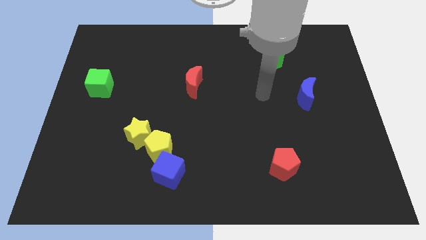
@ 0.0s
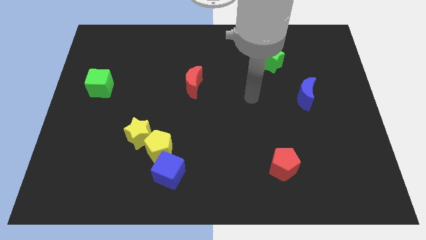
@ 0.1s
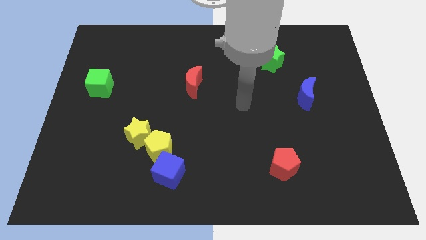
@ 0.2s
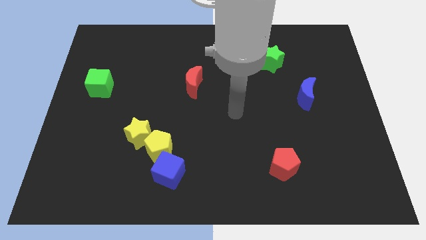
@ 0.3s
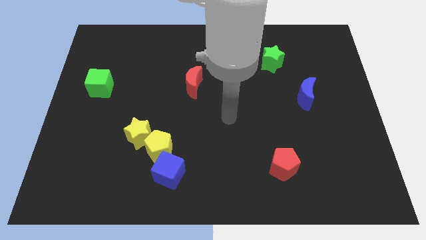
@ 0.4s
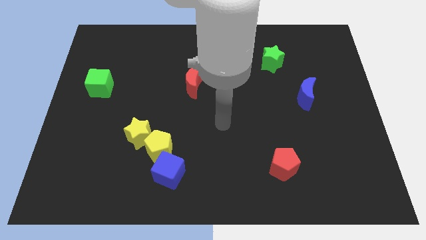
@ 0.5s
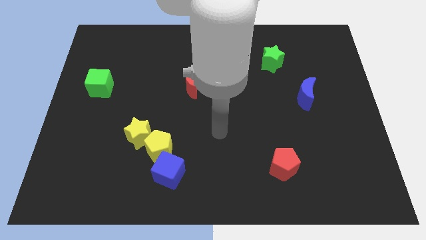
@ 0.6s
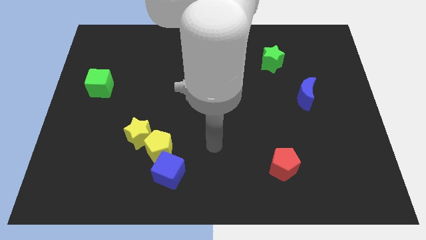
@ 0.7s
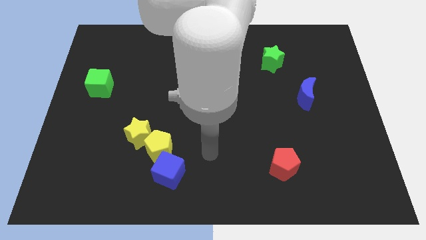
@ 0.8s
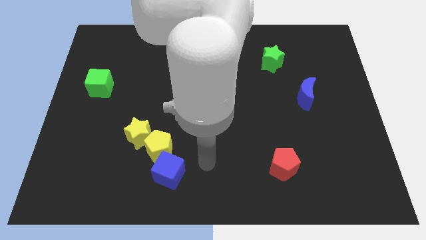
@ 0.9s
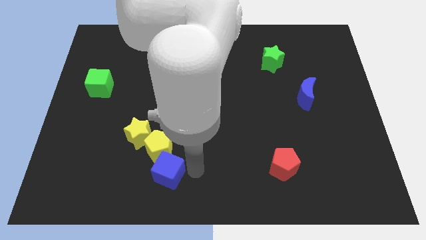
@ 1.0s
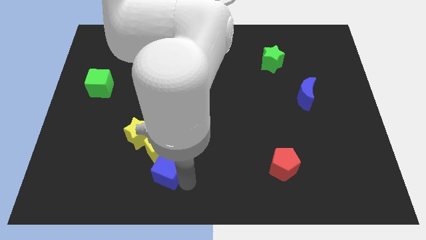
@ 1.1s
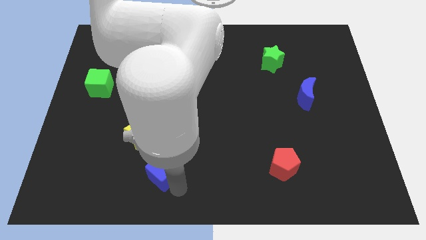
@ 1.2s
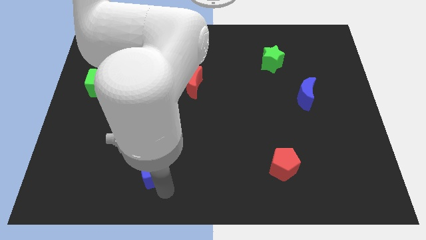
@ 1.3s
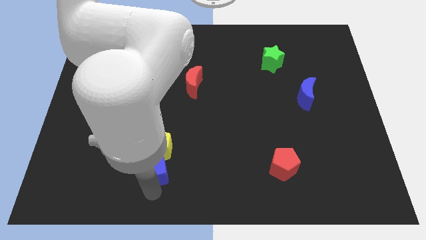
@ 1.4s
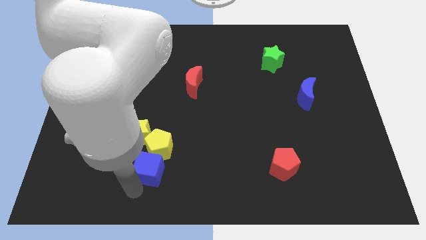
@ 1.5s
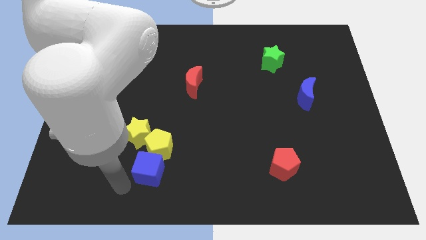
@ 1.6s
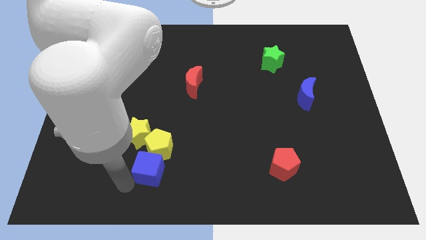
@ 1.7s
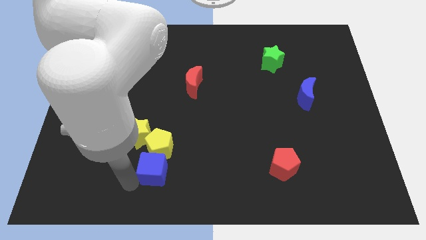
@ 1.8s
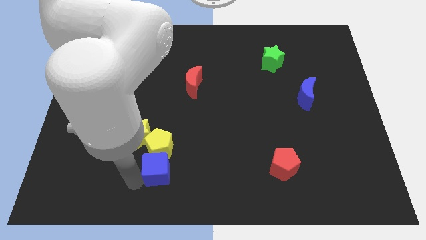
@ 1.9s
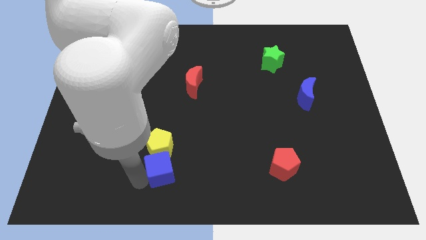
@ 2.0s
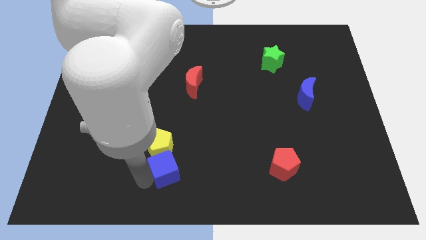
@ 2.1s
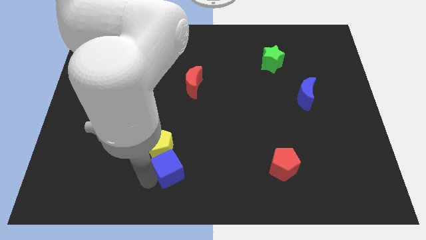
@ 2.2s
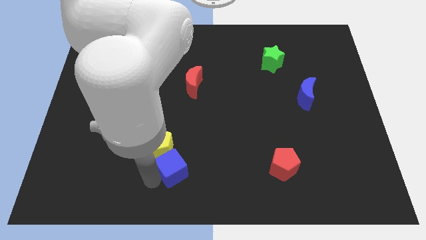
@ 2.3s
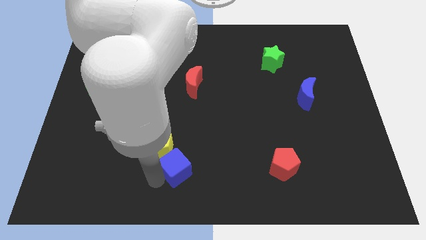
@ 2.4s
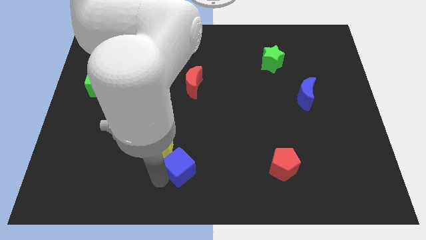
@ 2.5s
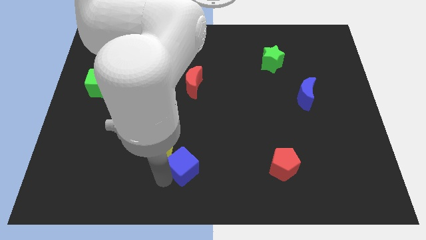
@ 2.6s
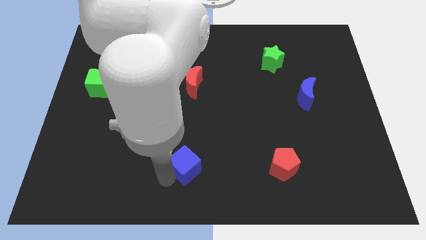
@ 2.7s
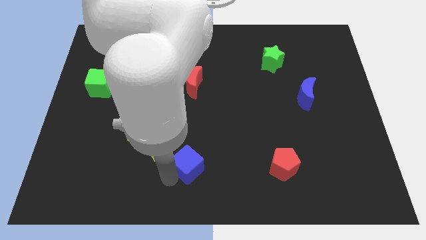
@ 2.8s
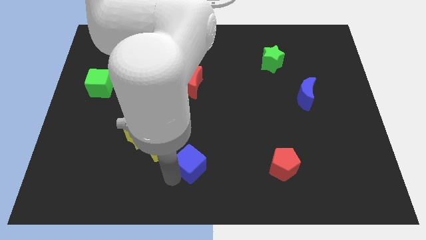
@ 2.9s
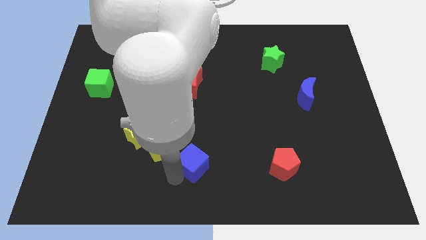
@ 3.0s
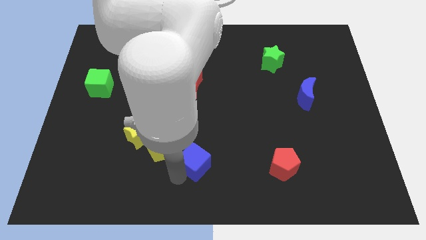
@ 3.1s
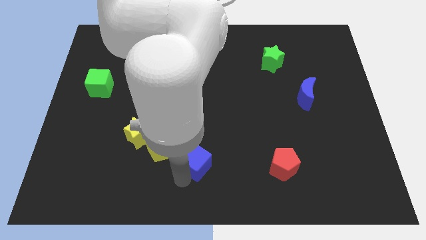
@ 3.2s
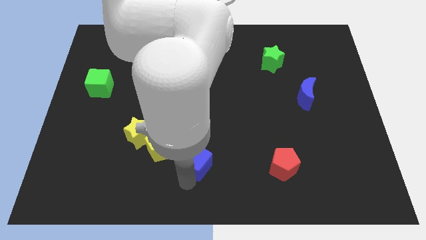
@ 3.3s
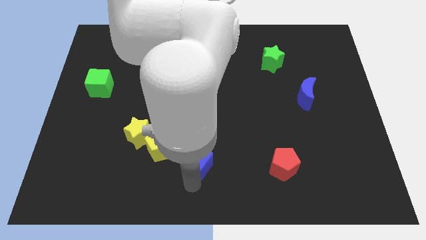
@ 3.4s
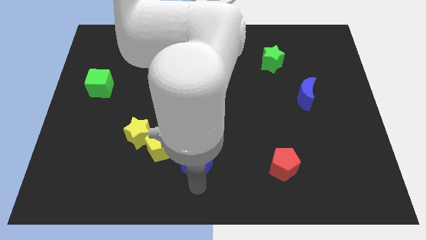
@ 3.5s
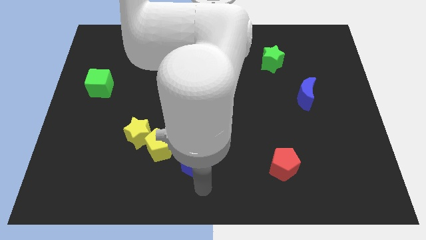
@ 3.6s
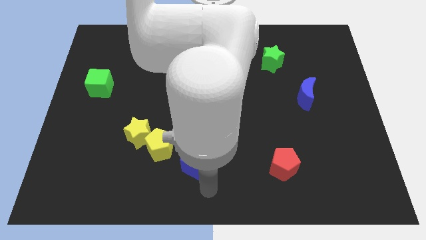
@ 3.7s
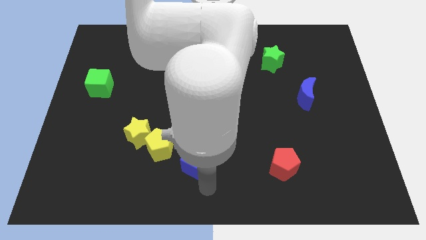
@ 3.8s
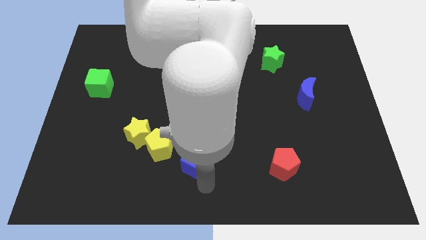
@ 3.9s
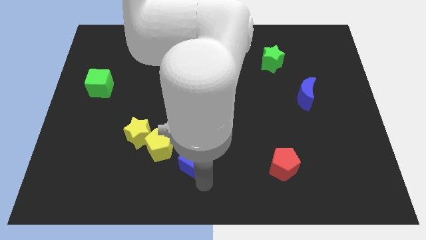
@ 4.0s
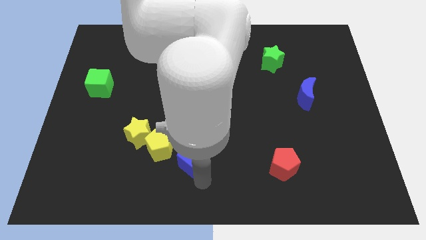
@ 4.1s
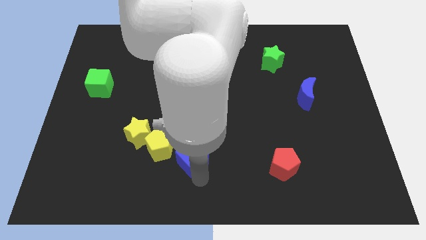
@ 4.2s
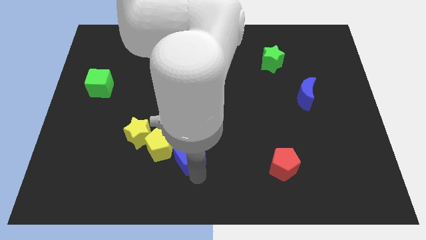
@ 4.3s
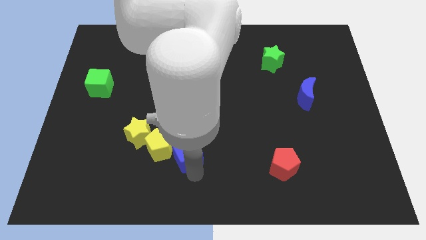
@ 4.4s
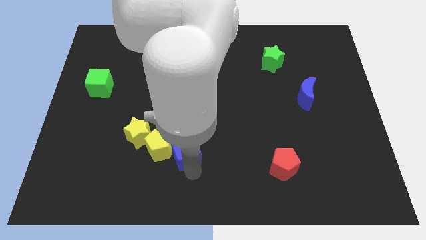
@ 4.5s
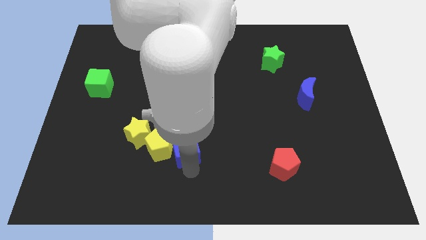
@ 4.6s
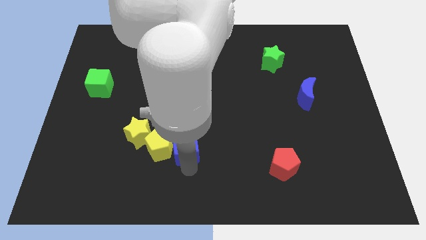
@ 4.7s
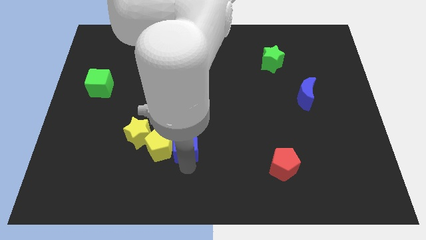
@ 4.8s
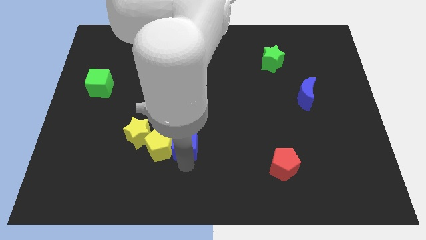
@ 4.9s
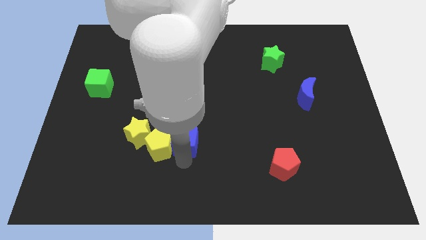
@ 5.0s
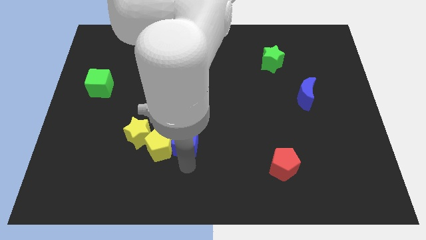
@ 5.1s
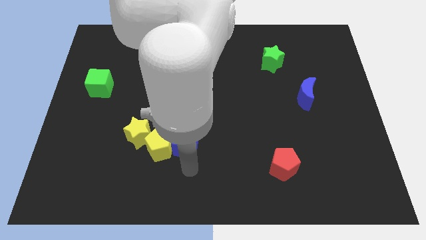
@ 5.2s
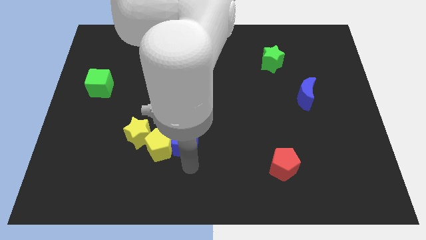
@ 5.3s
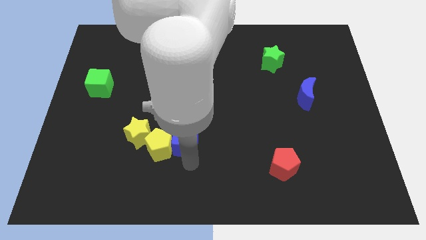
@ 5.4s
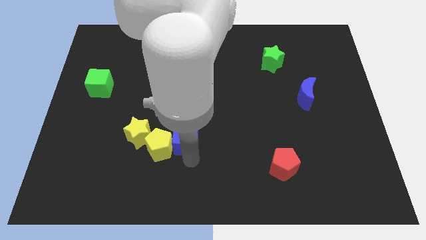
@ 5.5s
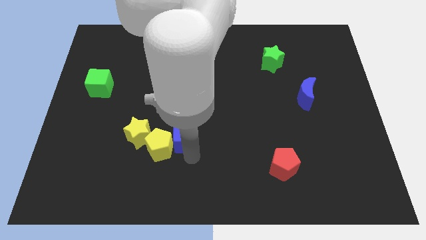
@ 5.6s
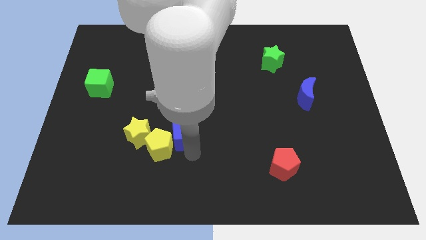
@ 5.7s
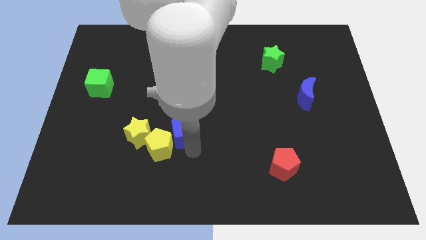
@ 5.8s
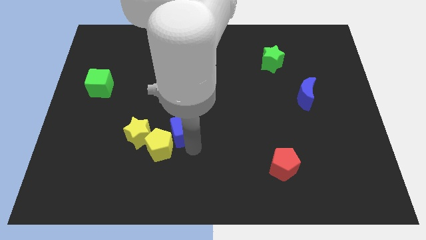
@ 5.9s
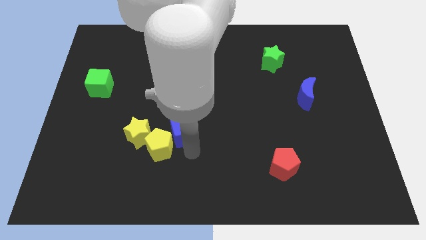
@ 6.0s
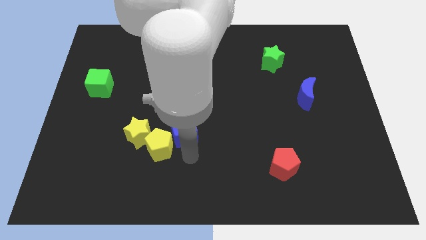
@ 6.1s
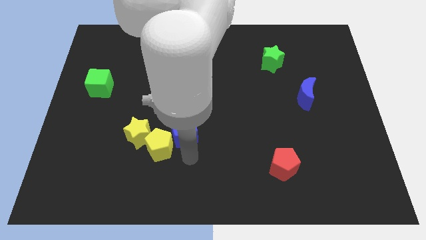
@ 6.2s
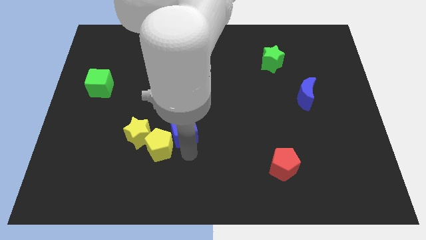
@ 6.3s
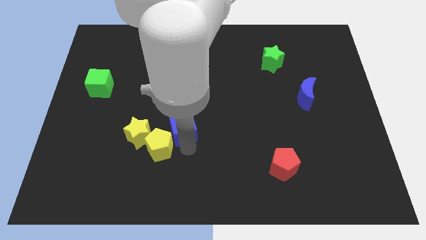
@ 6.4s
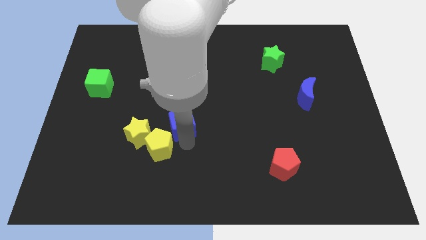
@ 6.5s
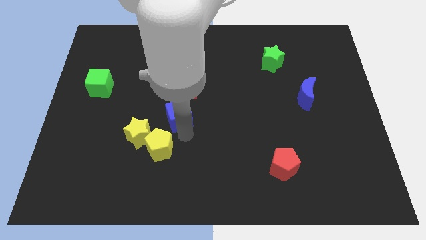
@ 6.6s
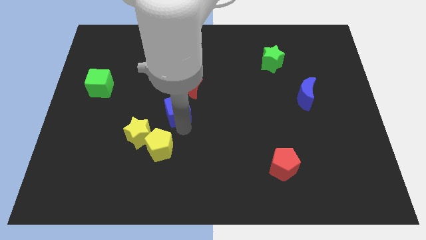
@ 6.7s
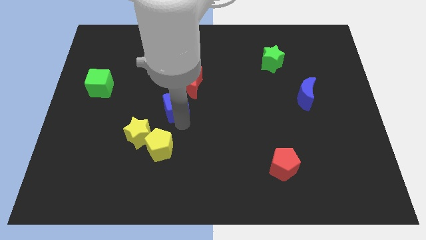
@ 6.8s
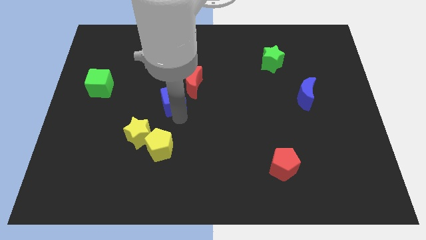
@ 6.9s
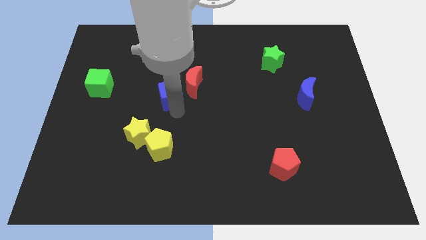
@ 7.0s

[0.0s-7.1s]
push the blue cube up

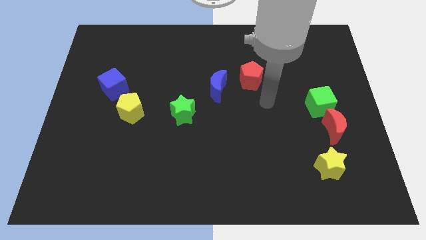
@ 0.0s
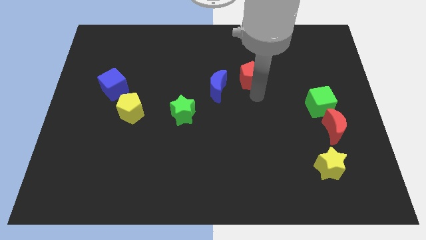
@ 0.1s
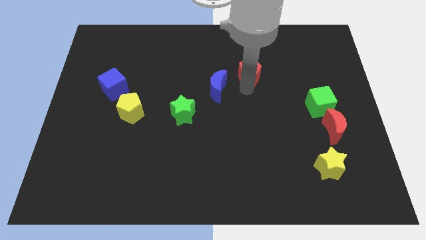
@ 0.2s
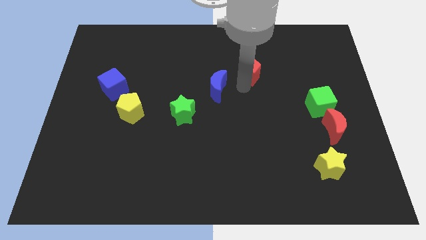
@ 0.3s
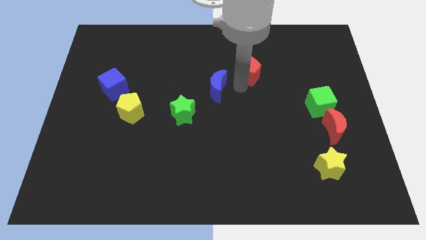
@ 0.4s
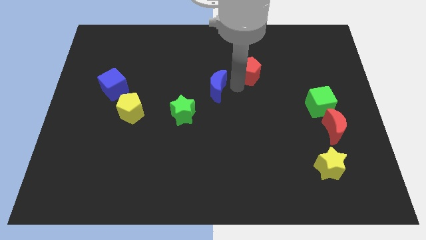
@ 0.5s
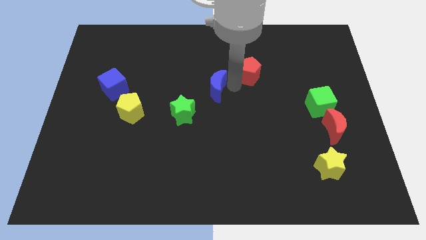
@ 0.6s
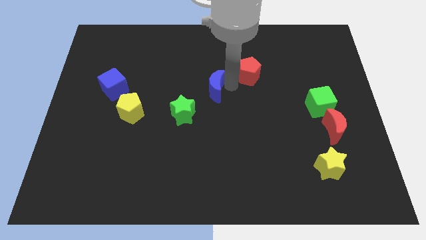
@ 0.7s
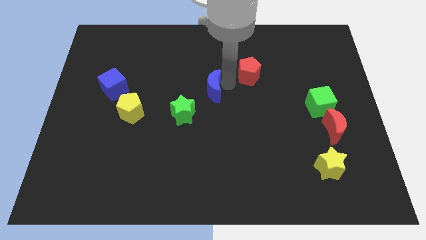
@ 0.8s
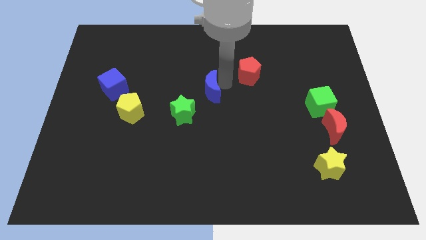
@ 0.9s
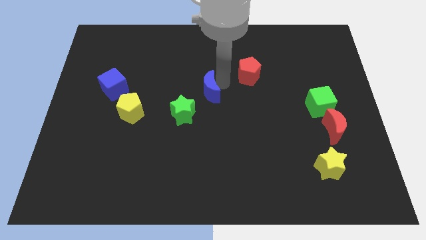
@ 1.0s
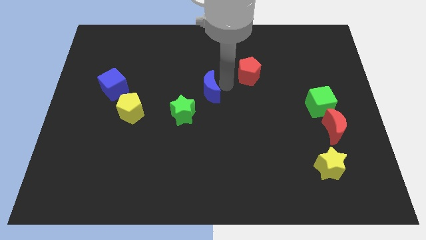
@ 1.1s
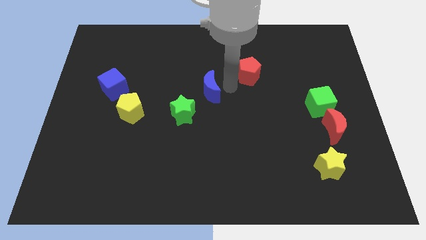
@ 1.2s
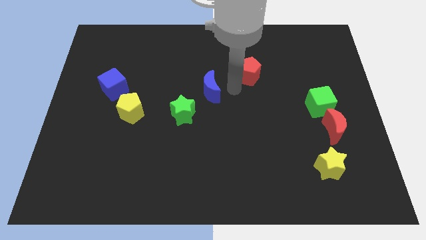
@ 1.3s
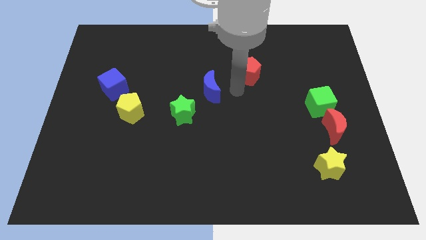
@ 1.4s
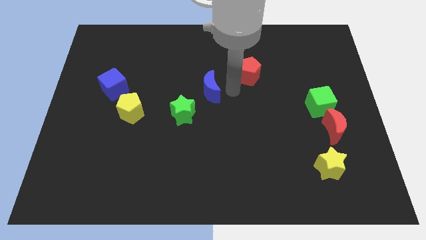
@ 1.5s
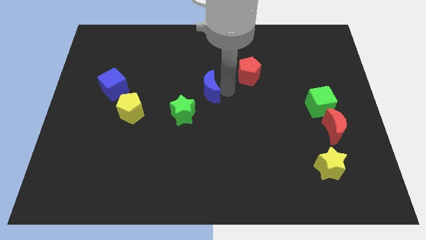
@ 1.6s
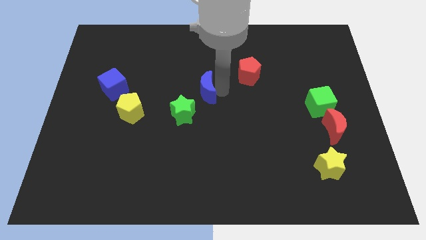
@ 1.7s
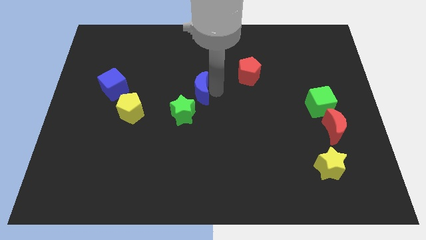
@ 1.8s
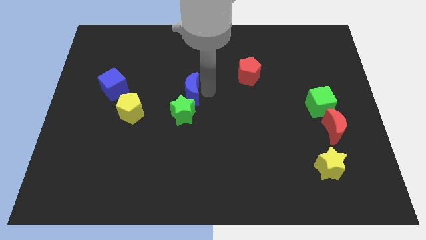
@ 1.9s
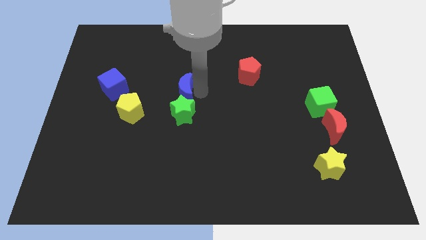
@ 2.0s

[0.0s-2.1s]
slightly move the blue moon left
